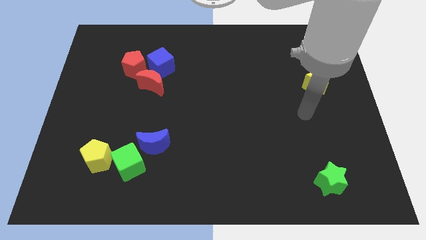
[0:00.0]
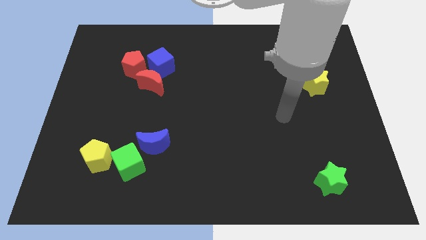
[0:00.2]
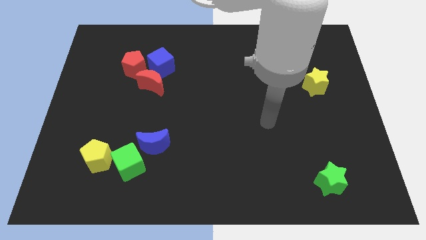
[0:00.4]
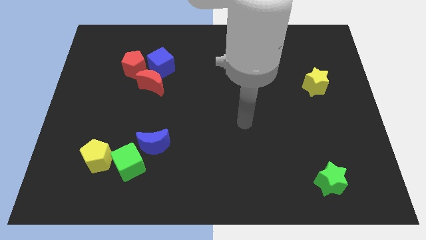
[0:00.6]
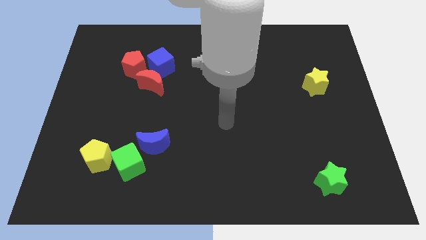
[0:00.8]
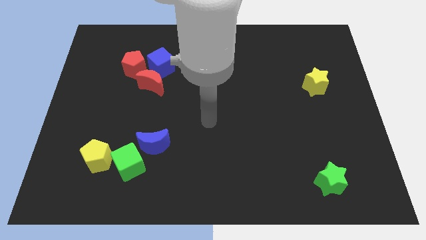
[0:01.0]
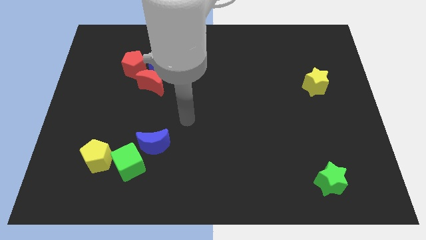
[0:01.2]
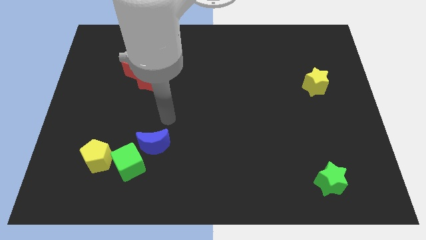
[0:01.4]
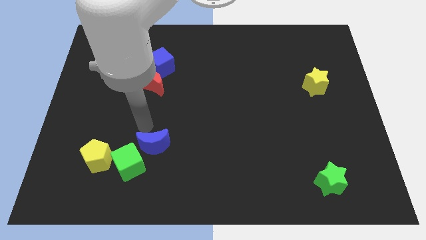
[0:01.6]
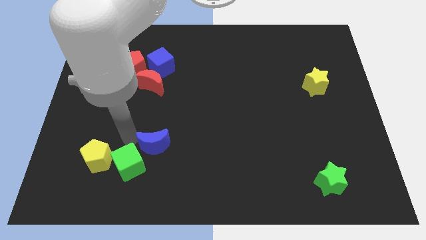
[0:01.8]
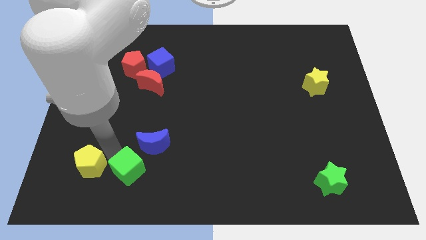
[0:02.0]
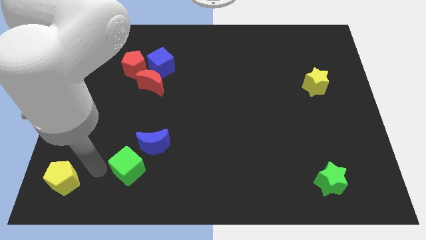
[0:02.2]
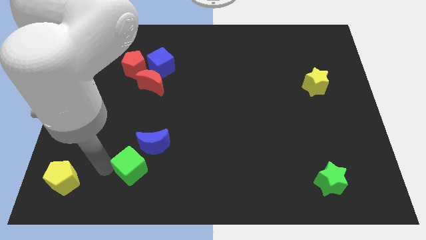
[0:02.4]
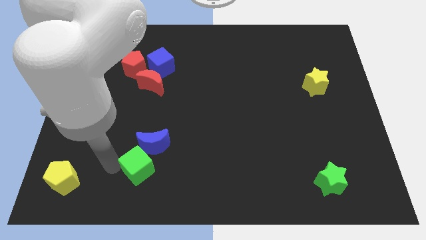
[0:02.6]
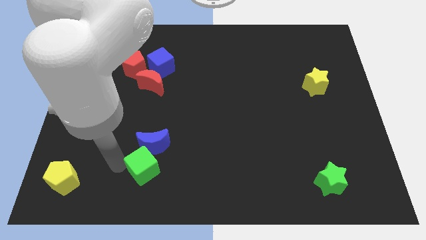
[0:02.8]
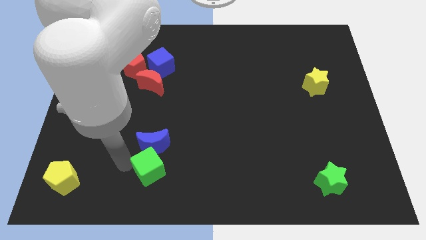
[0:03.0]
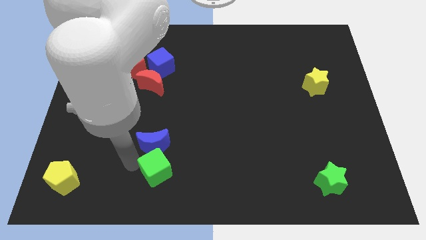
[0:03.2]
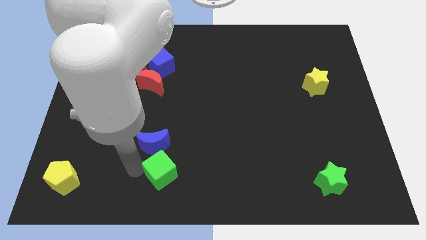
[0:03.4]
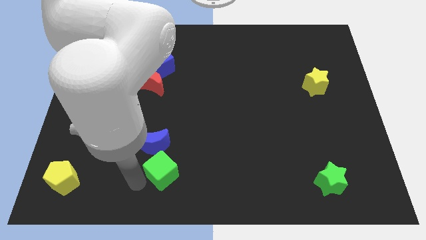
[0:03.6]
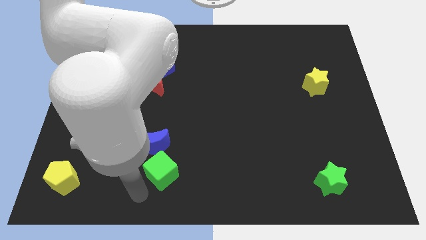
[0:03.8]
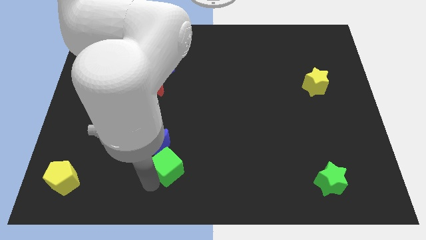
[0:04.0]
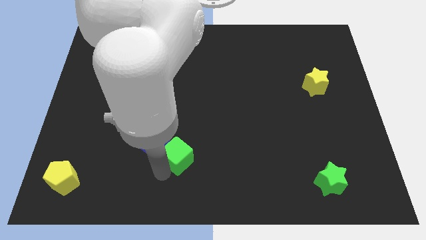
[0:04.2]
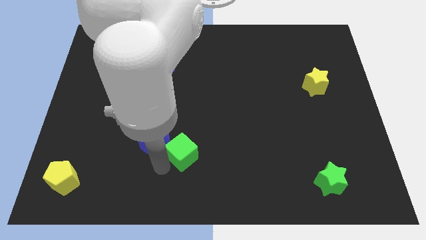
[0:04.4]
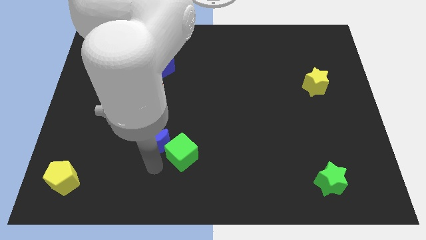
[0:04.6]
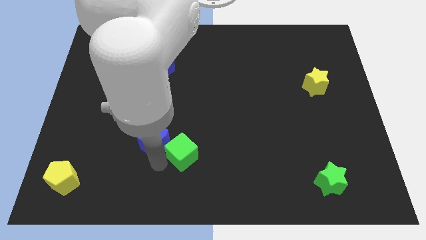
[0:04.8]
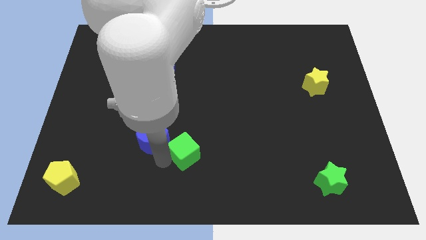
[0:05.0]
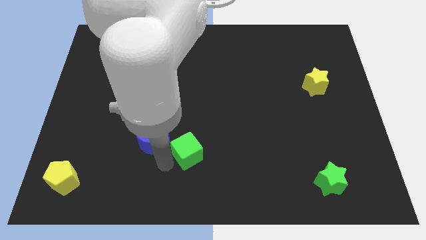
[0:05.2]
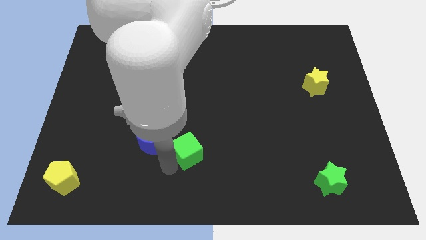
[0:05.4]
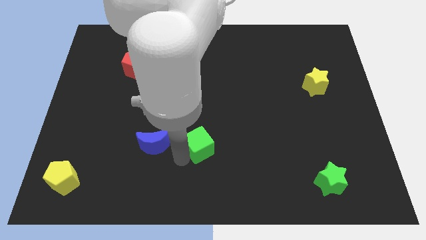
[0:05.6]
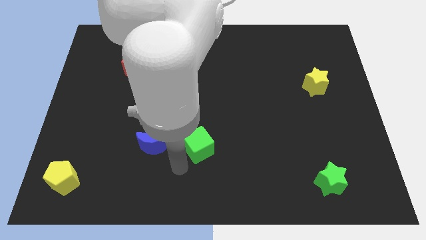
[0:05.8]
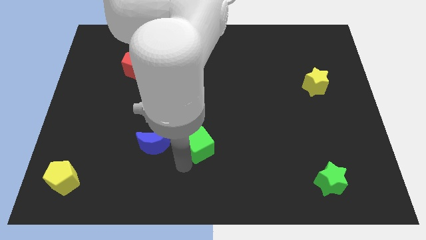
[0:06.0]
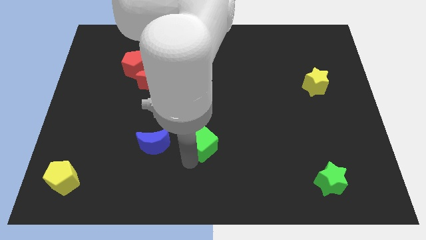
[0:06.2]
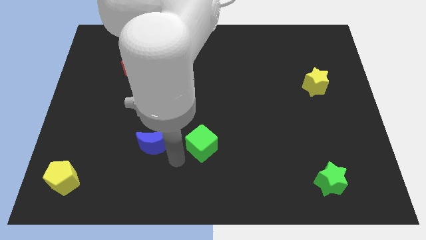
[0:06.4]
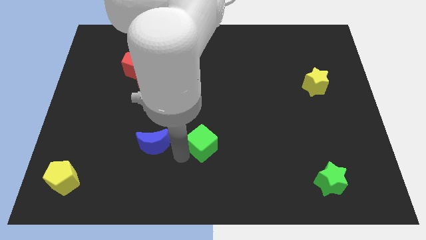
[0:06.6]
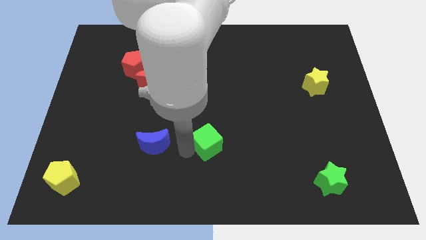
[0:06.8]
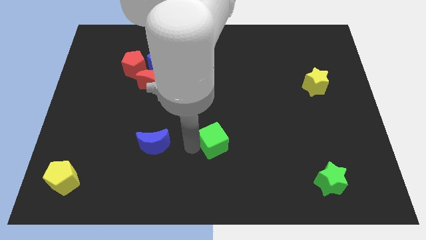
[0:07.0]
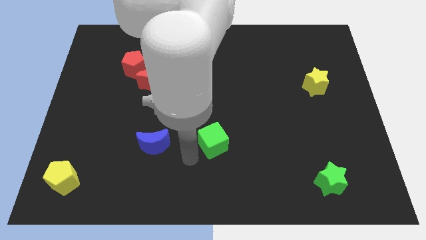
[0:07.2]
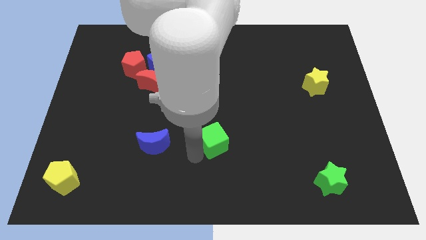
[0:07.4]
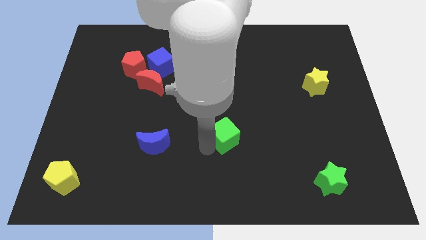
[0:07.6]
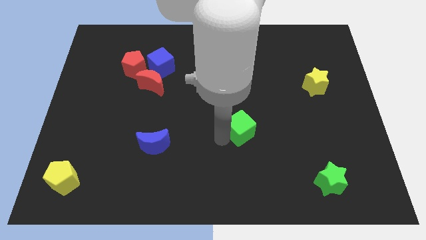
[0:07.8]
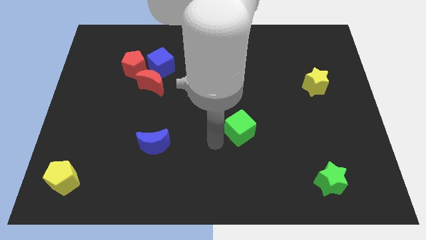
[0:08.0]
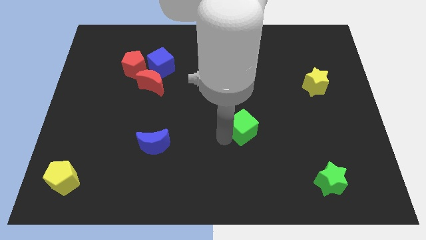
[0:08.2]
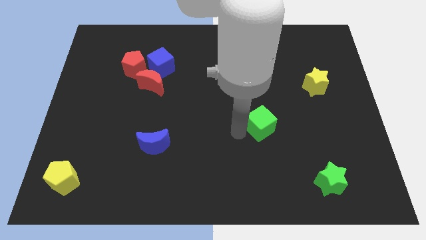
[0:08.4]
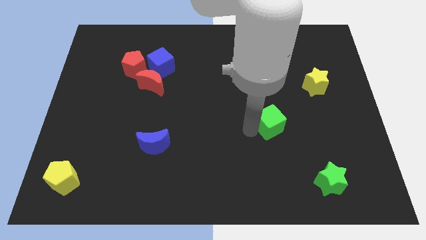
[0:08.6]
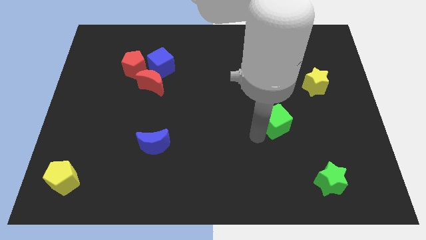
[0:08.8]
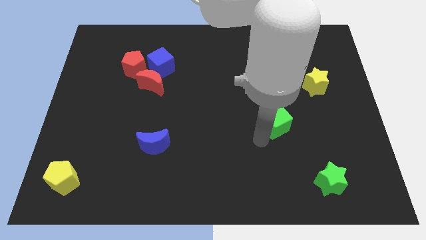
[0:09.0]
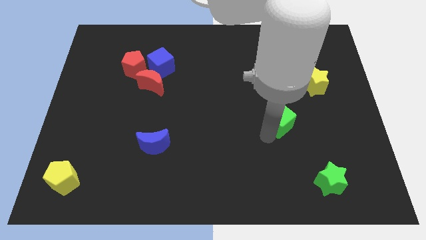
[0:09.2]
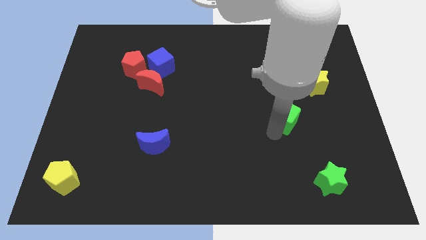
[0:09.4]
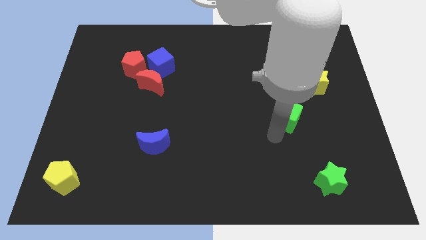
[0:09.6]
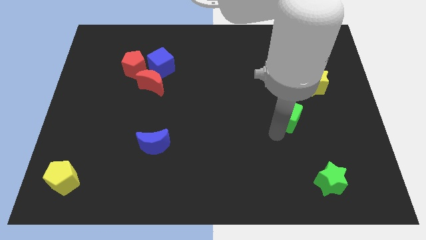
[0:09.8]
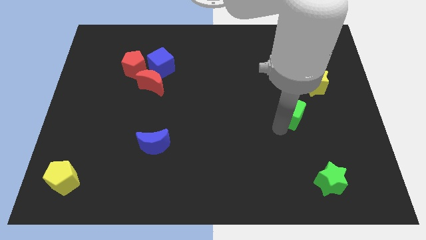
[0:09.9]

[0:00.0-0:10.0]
slide the green cube to the bottom left side of the yellow star

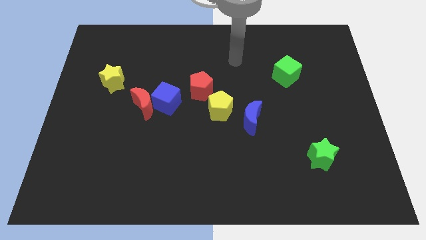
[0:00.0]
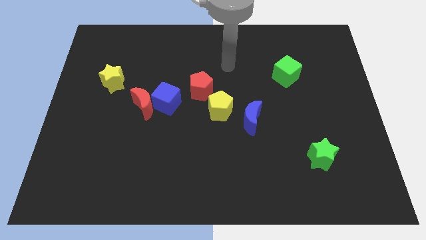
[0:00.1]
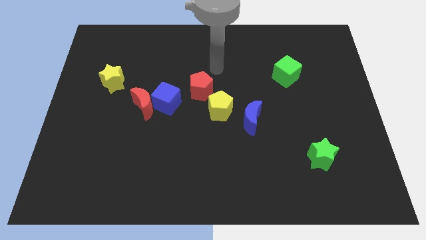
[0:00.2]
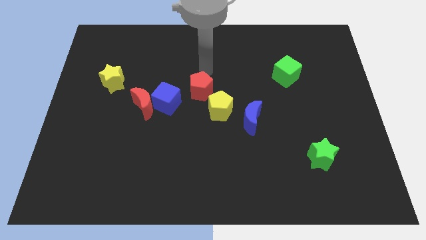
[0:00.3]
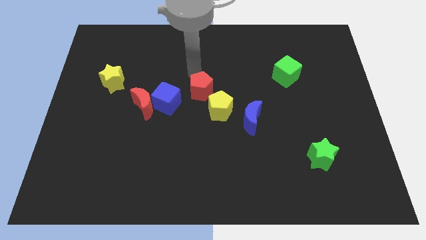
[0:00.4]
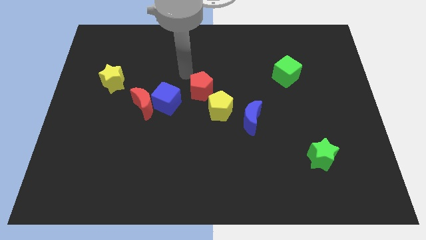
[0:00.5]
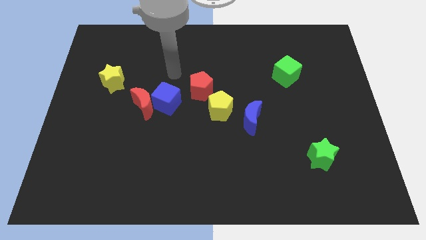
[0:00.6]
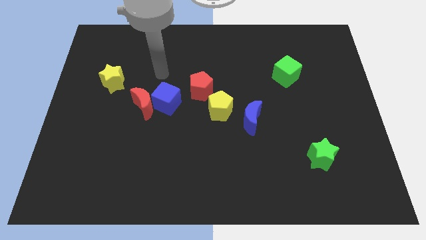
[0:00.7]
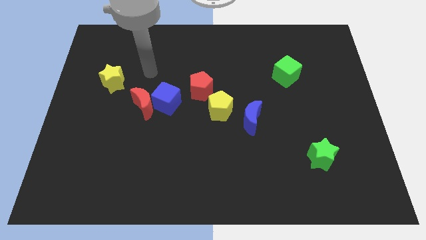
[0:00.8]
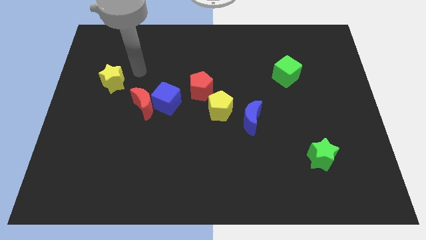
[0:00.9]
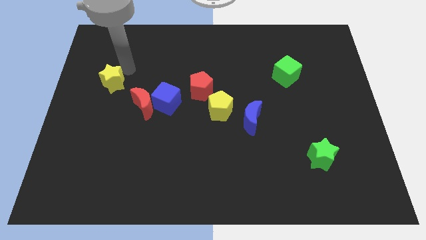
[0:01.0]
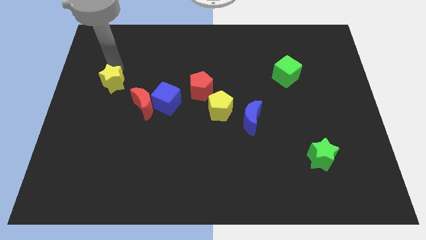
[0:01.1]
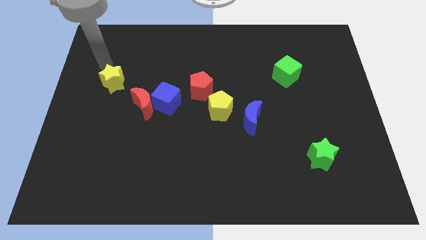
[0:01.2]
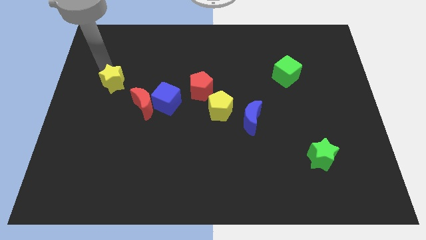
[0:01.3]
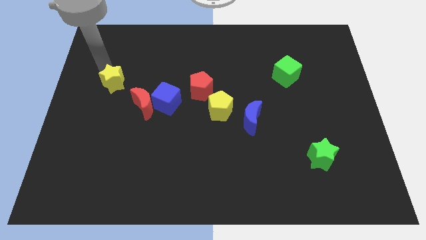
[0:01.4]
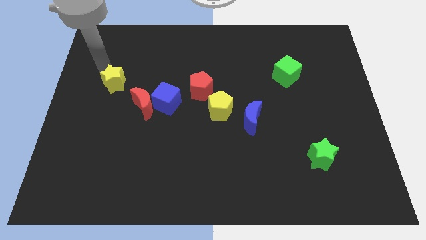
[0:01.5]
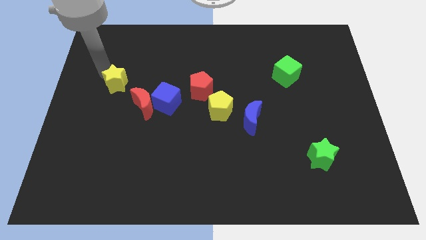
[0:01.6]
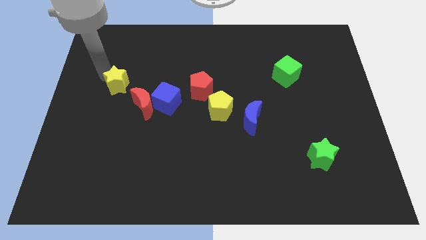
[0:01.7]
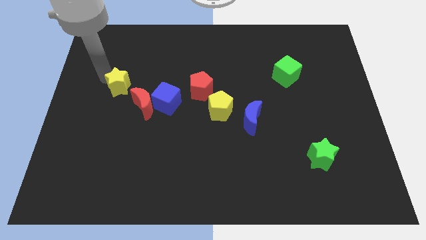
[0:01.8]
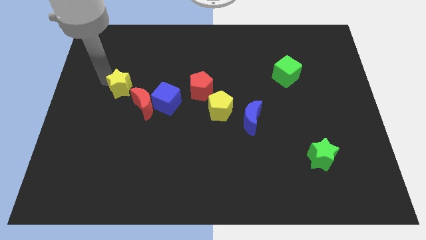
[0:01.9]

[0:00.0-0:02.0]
move the yellow star to the left side of the blue cube
